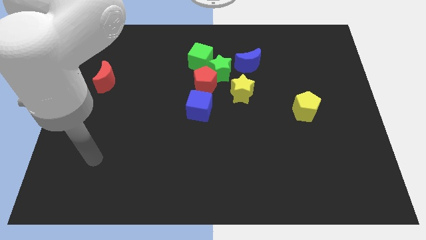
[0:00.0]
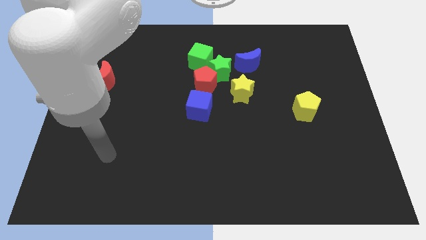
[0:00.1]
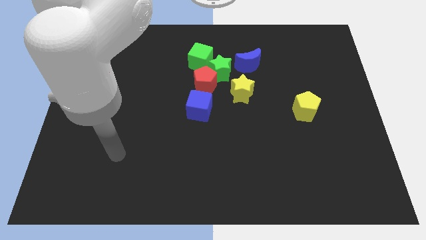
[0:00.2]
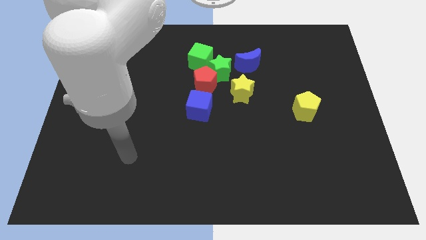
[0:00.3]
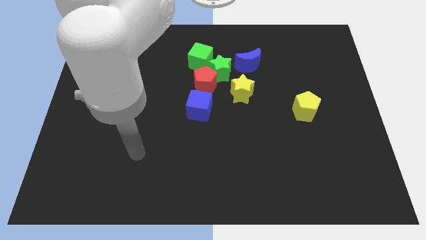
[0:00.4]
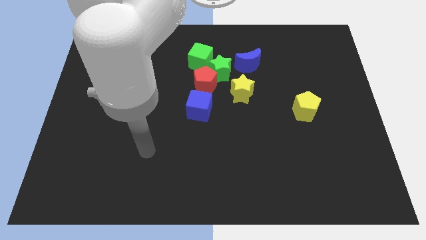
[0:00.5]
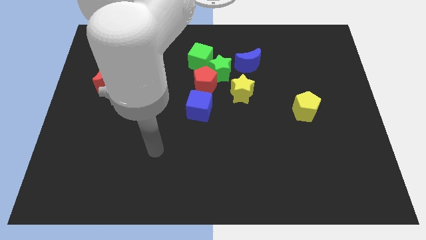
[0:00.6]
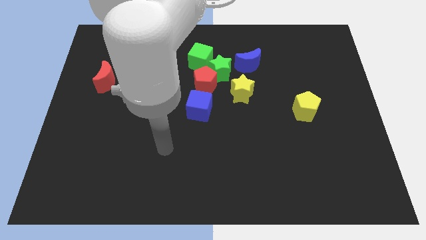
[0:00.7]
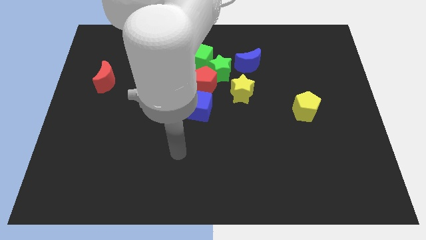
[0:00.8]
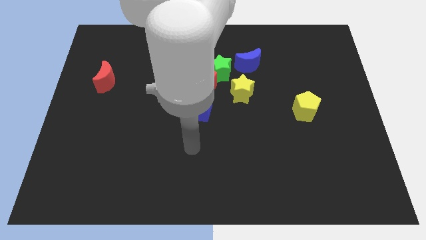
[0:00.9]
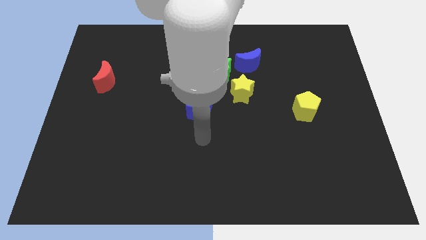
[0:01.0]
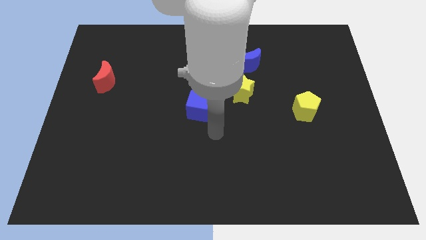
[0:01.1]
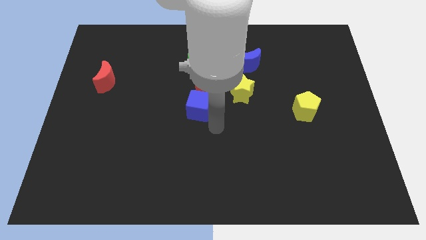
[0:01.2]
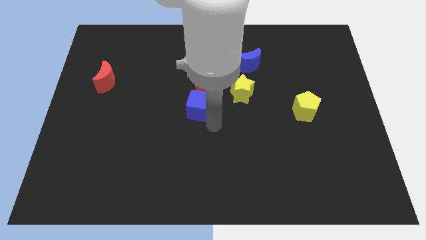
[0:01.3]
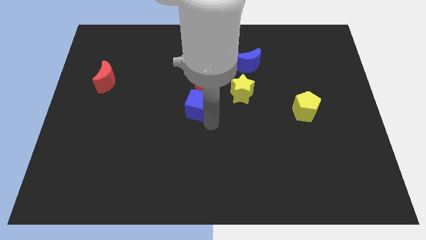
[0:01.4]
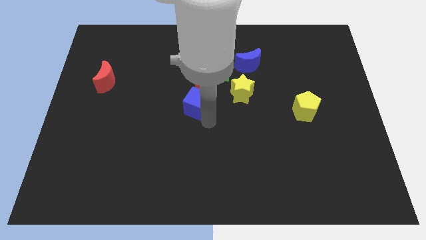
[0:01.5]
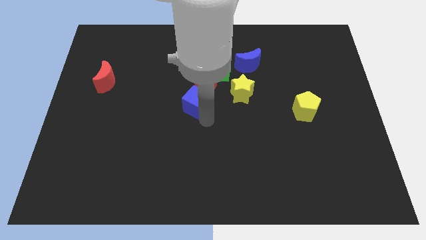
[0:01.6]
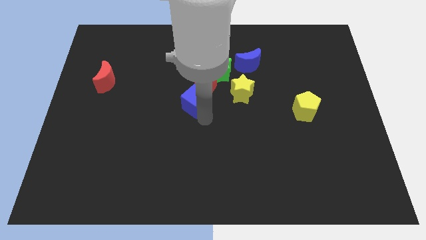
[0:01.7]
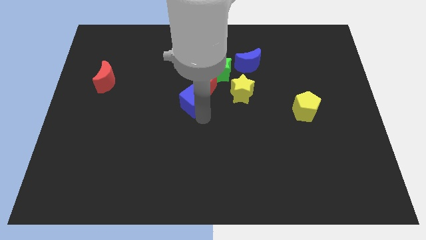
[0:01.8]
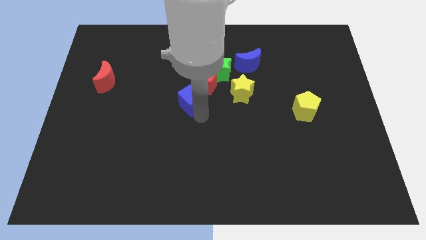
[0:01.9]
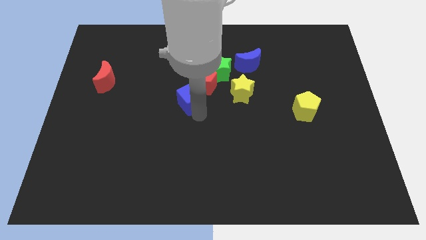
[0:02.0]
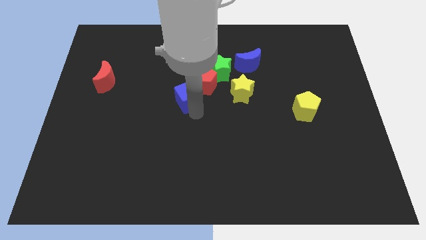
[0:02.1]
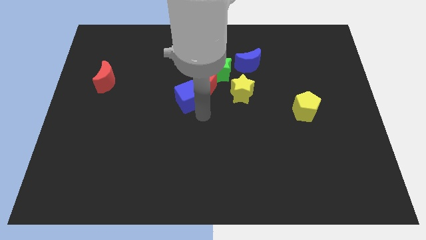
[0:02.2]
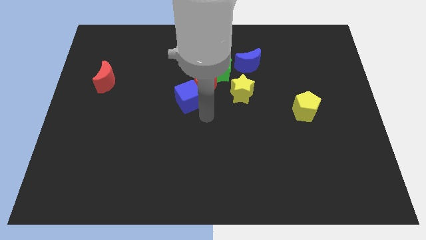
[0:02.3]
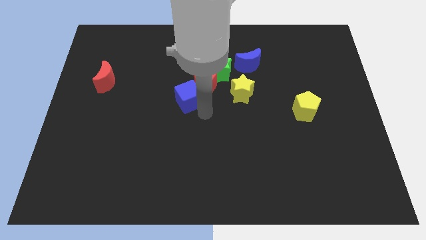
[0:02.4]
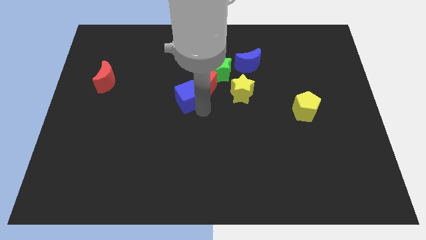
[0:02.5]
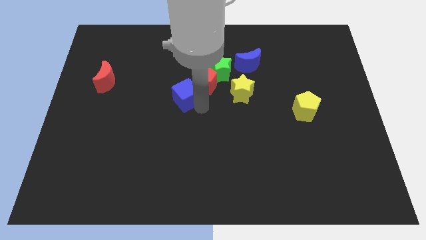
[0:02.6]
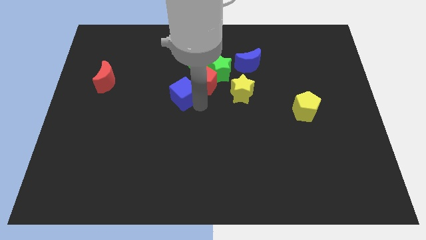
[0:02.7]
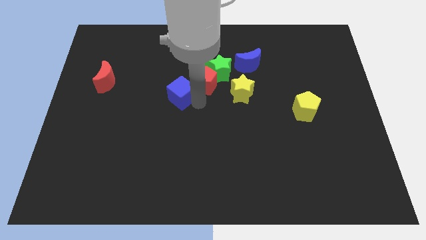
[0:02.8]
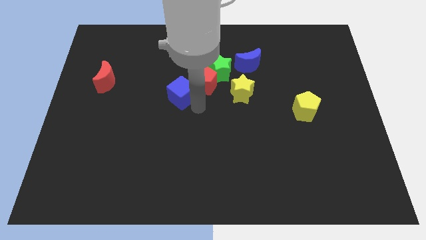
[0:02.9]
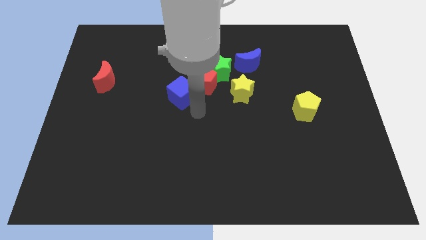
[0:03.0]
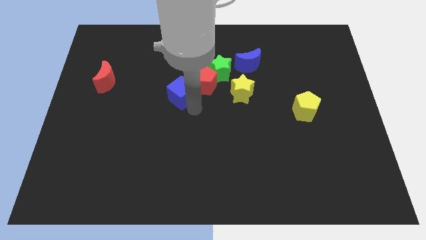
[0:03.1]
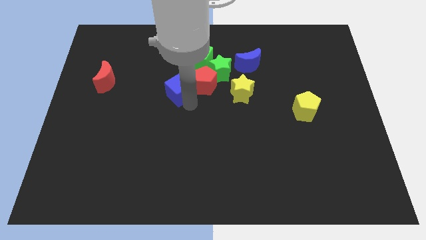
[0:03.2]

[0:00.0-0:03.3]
push the blue cube a little diagonally upwards and left

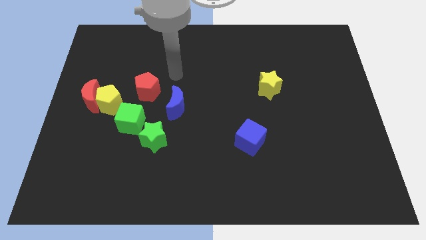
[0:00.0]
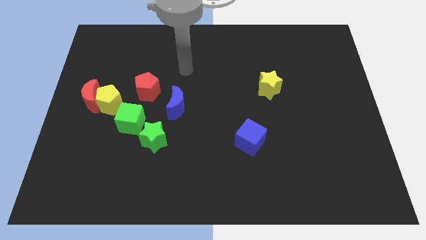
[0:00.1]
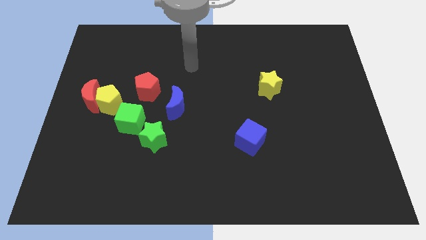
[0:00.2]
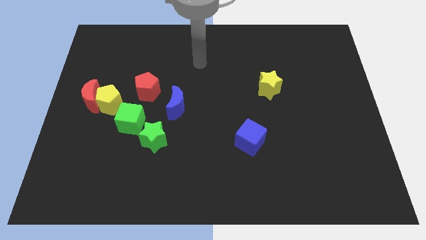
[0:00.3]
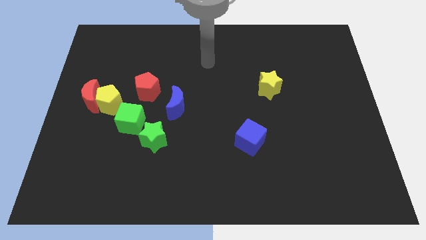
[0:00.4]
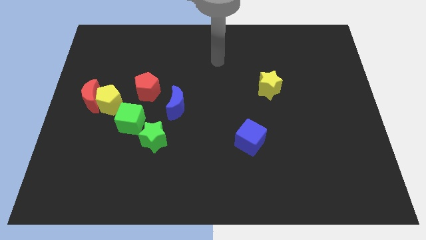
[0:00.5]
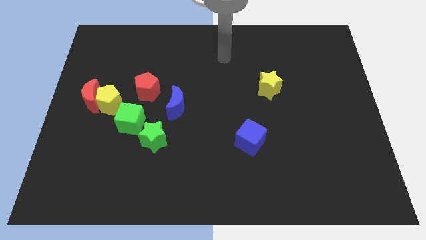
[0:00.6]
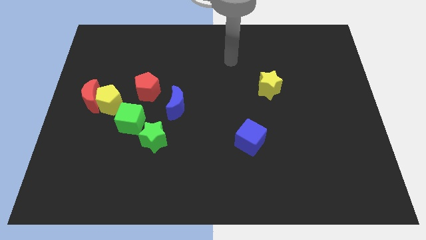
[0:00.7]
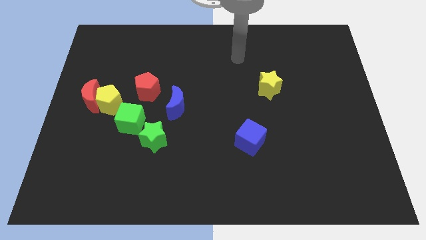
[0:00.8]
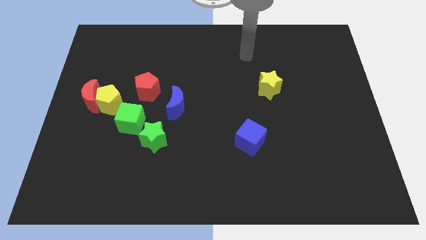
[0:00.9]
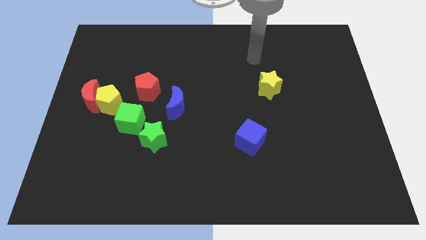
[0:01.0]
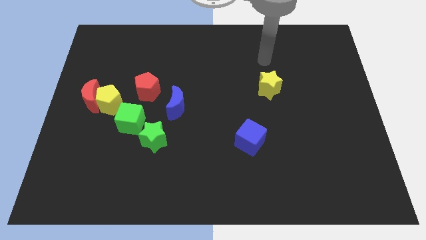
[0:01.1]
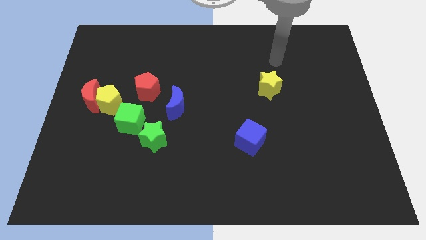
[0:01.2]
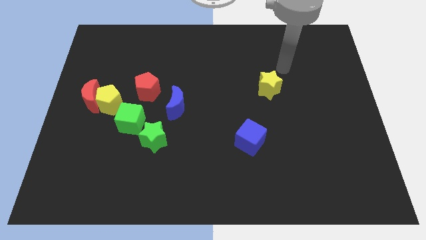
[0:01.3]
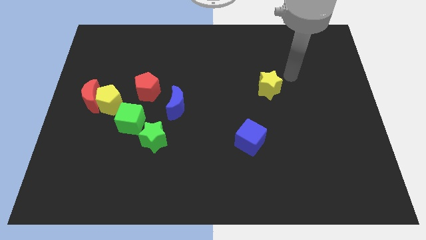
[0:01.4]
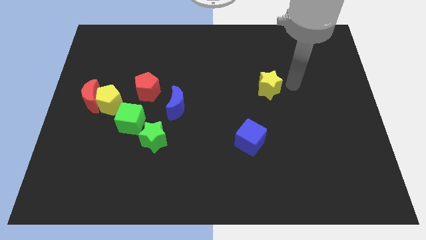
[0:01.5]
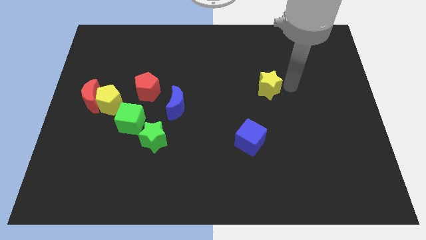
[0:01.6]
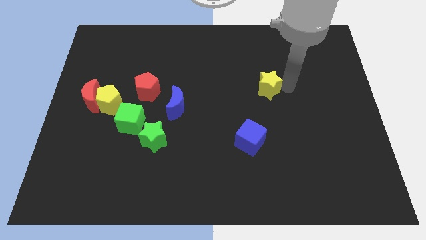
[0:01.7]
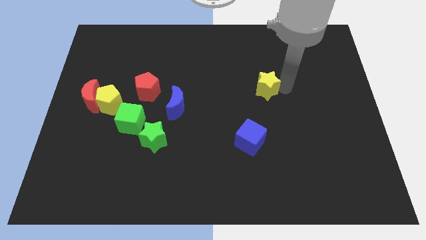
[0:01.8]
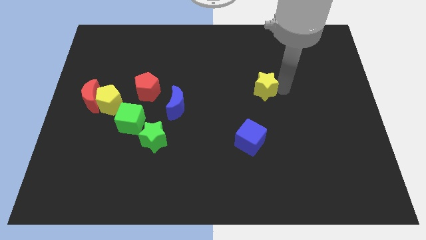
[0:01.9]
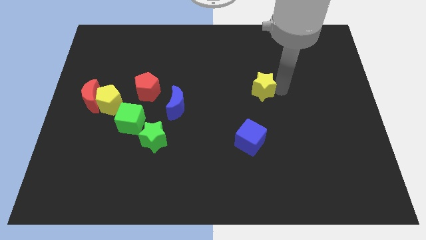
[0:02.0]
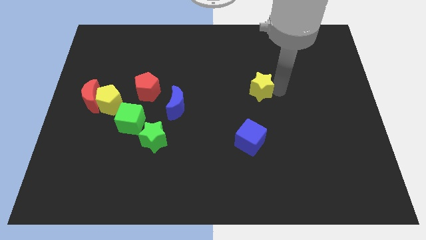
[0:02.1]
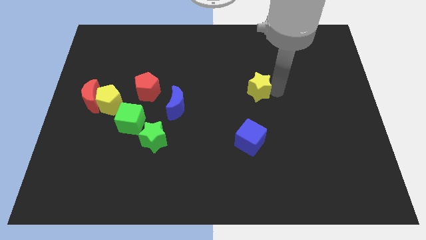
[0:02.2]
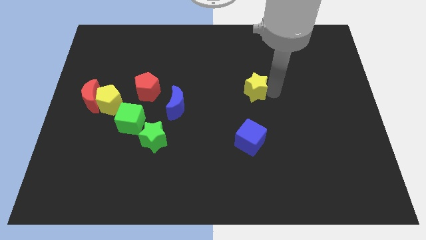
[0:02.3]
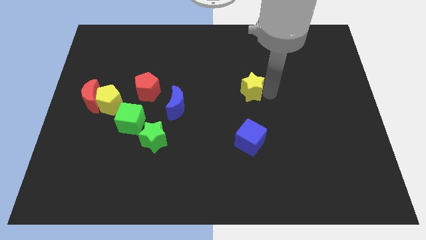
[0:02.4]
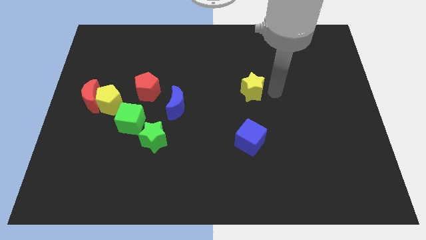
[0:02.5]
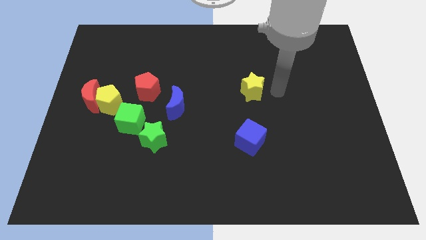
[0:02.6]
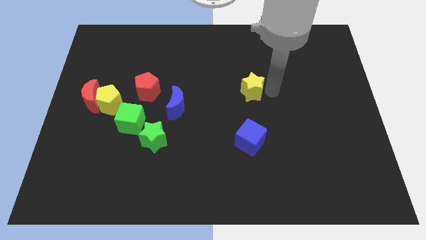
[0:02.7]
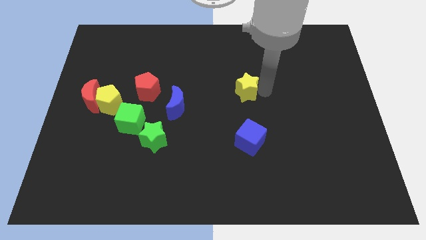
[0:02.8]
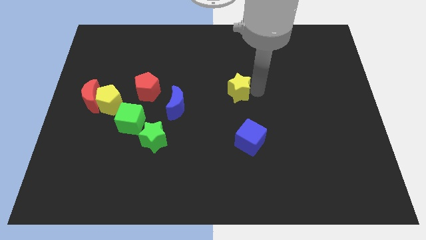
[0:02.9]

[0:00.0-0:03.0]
move the yellow star left a little bit

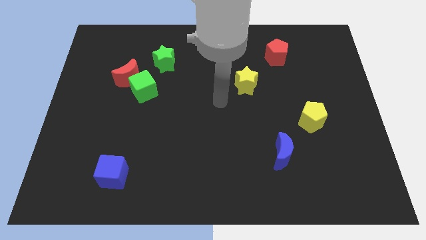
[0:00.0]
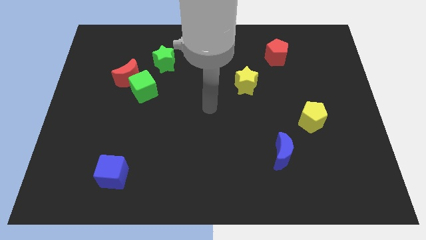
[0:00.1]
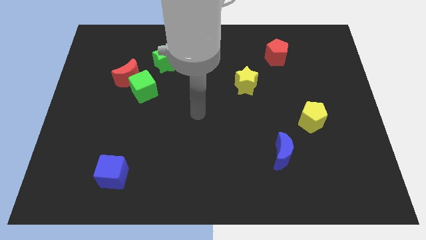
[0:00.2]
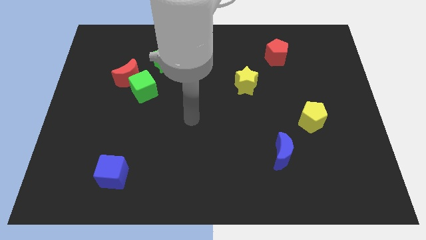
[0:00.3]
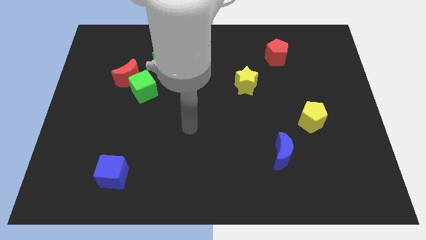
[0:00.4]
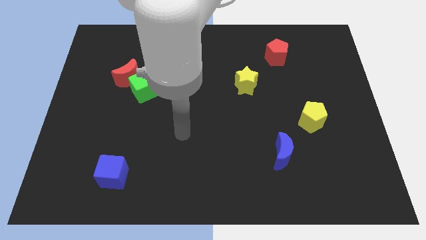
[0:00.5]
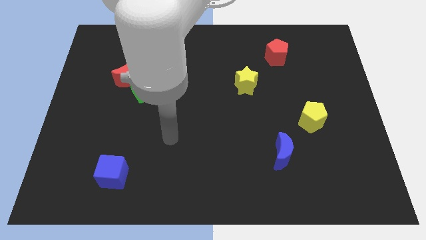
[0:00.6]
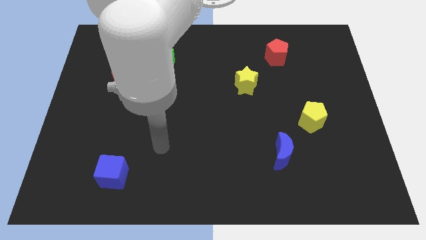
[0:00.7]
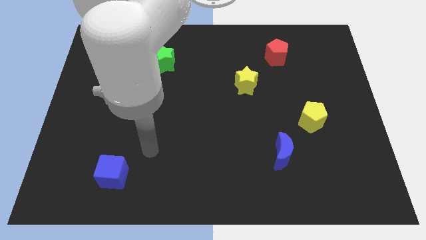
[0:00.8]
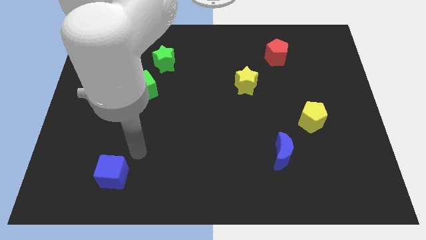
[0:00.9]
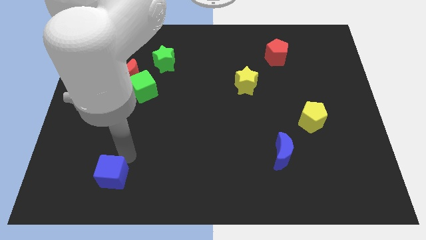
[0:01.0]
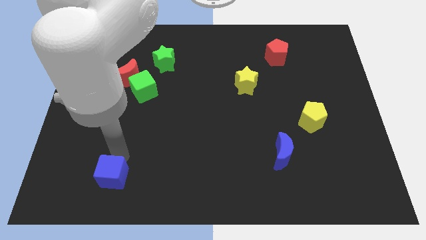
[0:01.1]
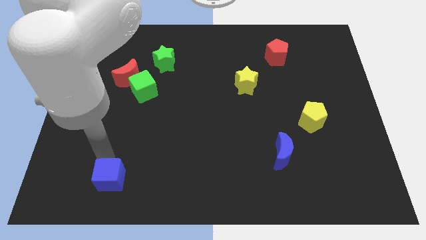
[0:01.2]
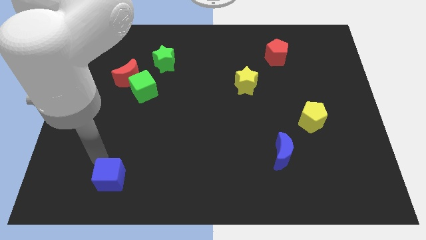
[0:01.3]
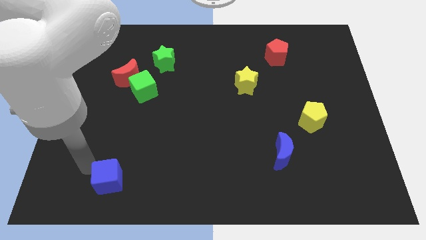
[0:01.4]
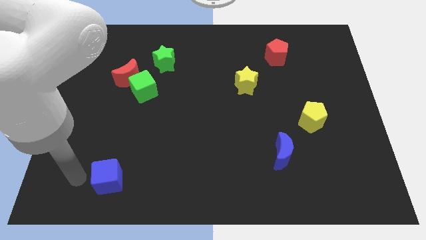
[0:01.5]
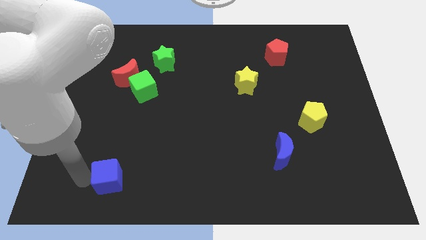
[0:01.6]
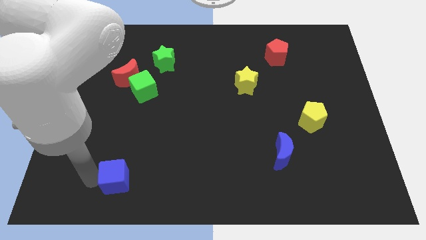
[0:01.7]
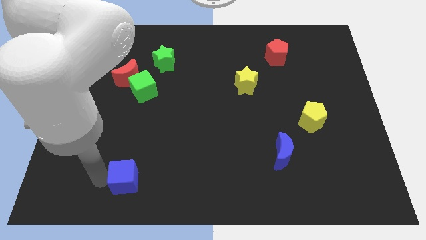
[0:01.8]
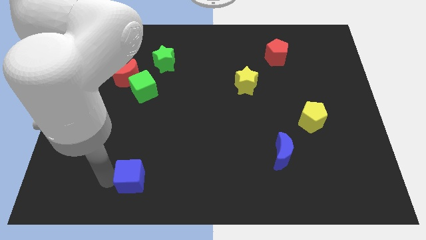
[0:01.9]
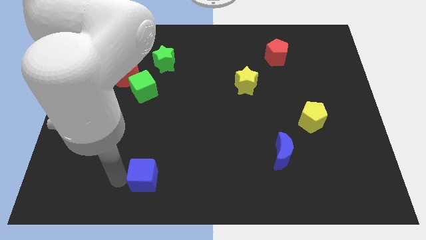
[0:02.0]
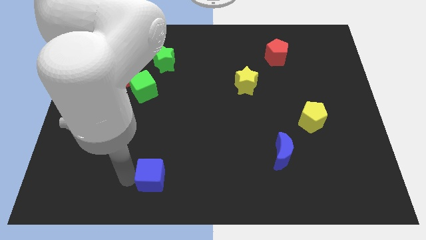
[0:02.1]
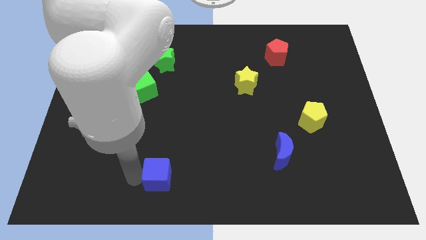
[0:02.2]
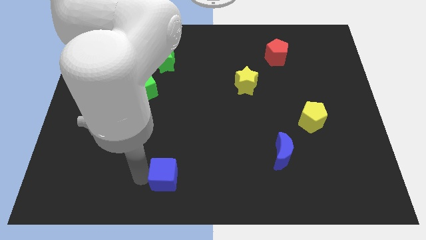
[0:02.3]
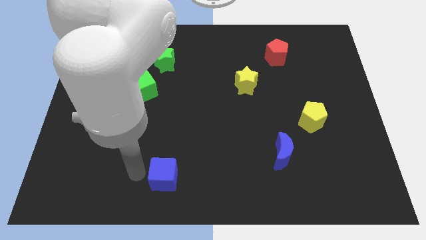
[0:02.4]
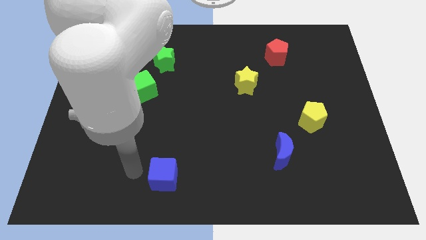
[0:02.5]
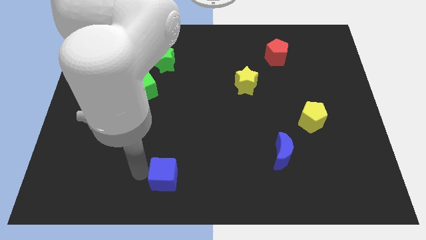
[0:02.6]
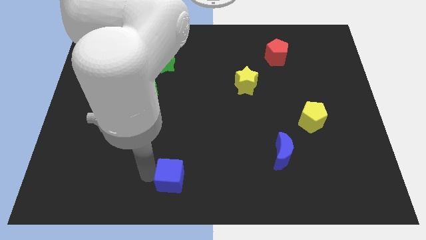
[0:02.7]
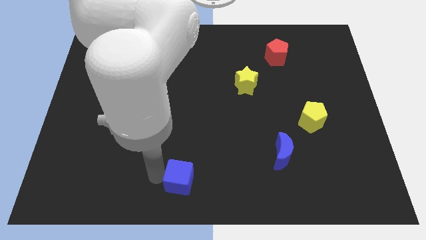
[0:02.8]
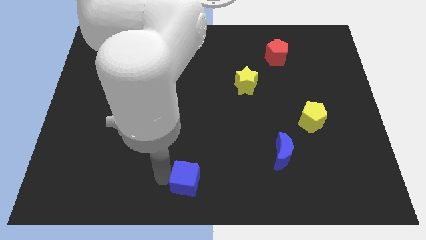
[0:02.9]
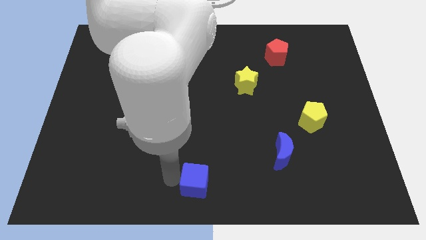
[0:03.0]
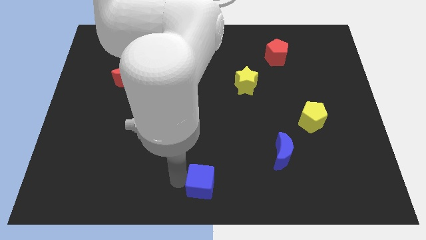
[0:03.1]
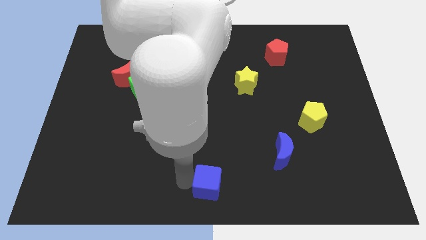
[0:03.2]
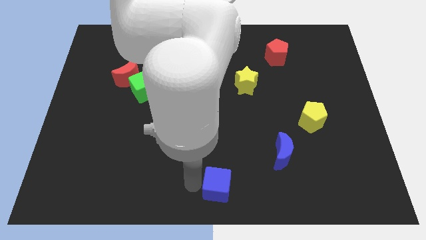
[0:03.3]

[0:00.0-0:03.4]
slide the blue cube to the right
